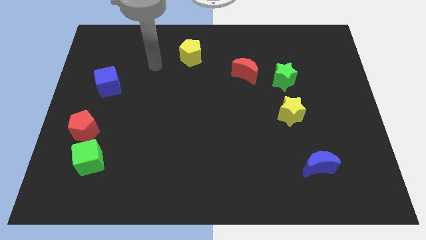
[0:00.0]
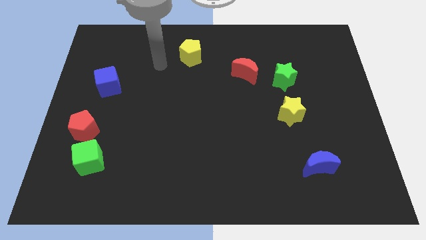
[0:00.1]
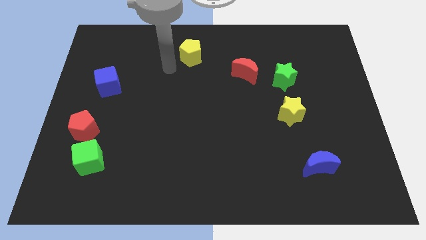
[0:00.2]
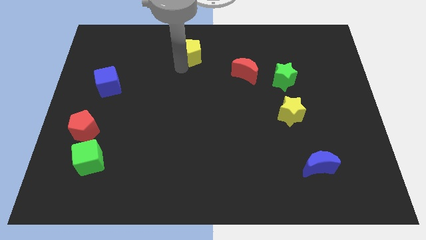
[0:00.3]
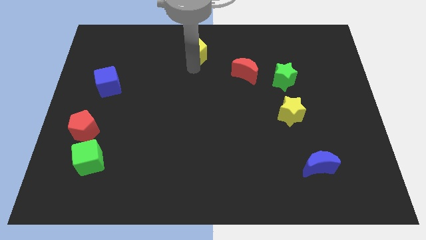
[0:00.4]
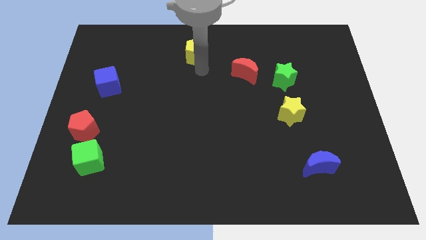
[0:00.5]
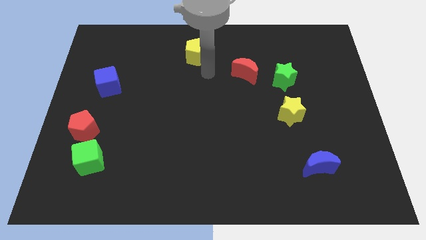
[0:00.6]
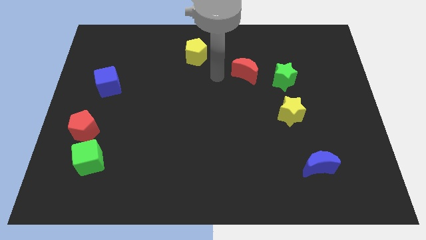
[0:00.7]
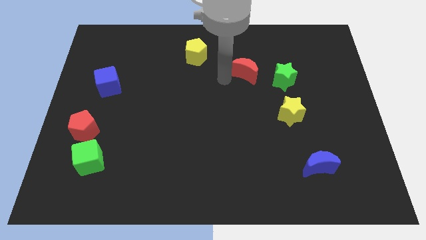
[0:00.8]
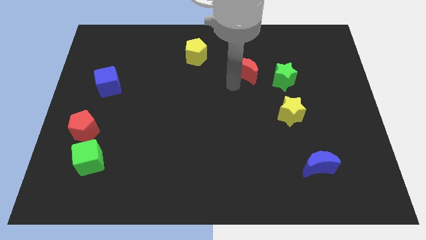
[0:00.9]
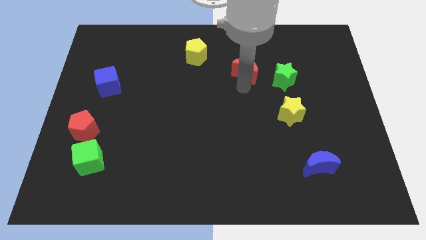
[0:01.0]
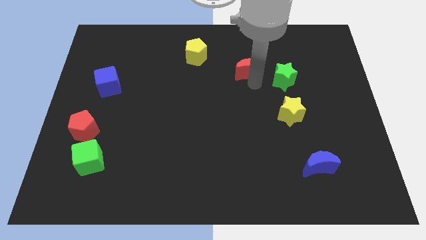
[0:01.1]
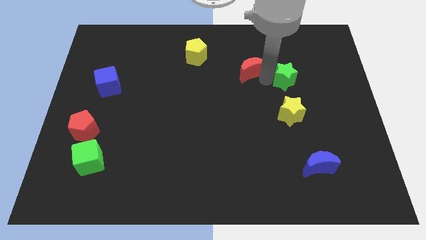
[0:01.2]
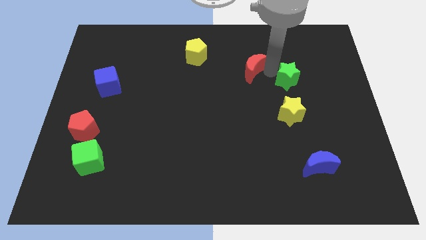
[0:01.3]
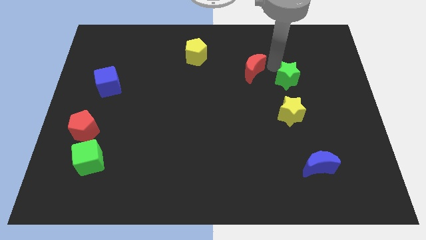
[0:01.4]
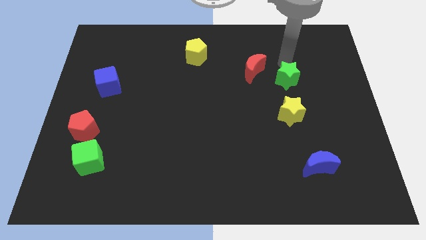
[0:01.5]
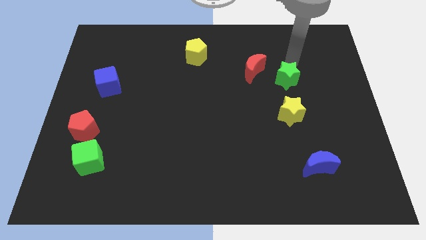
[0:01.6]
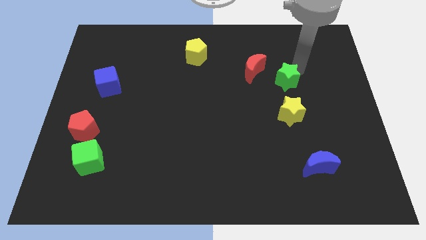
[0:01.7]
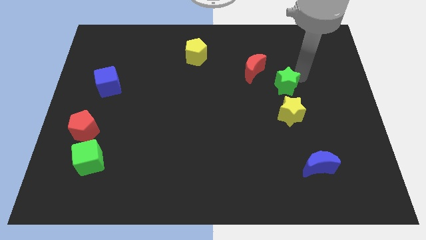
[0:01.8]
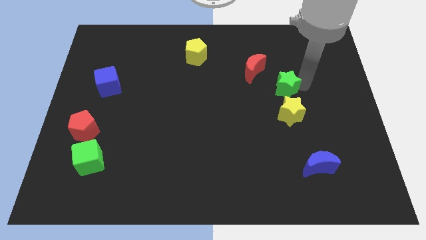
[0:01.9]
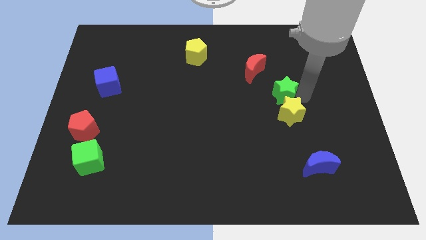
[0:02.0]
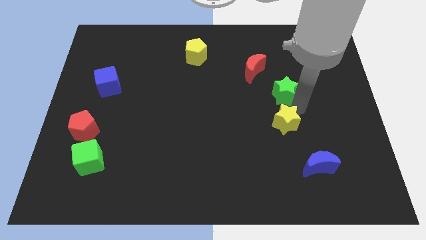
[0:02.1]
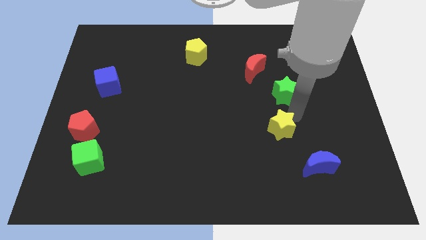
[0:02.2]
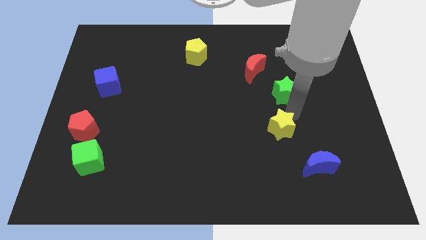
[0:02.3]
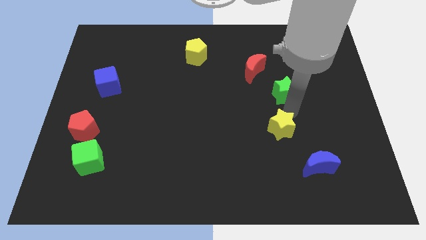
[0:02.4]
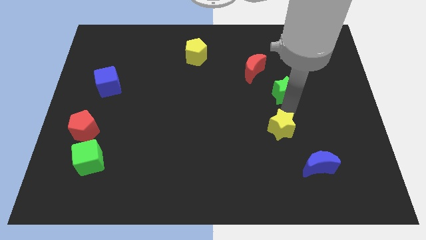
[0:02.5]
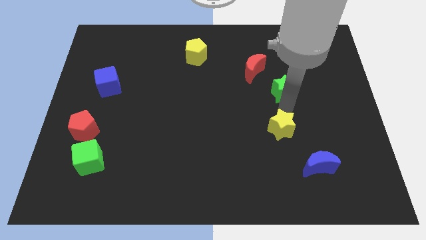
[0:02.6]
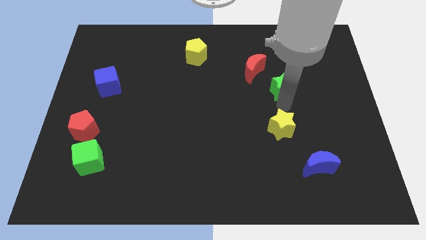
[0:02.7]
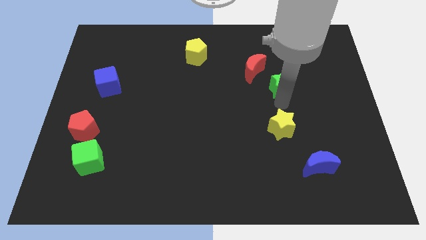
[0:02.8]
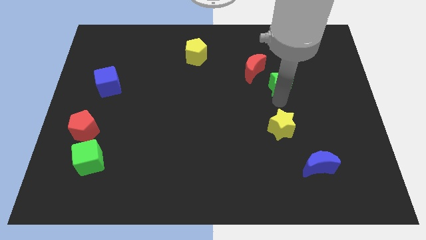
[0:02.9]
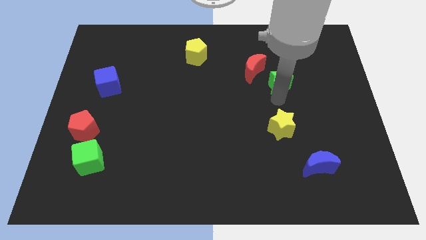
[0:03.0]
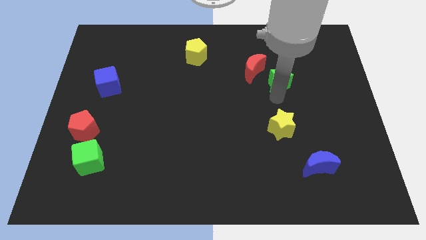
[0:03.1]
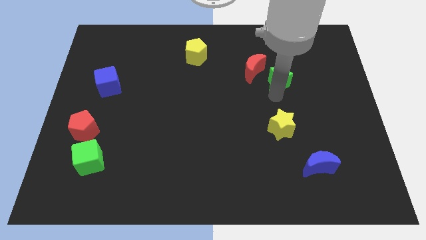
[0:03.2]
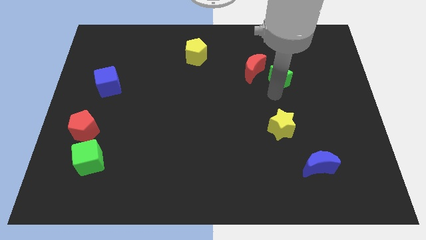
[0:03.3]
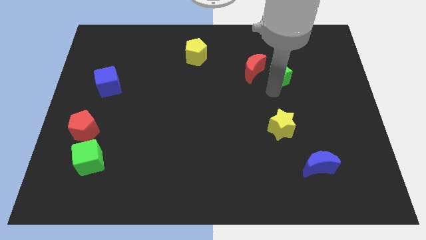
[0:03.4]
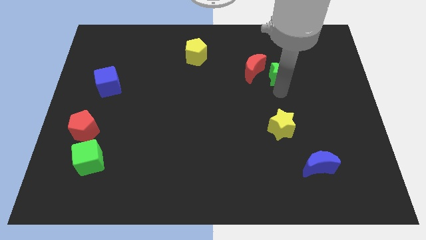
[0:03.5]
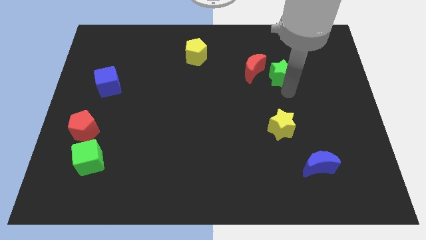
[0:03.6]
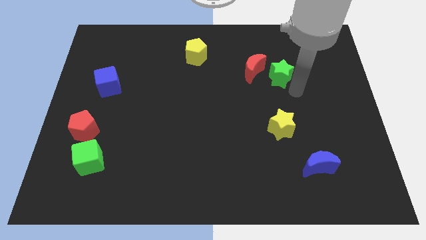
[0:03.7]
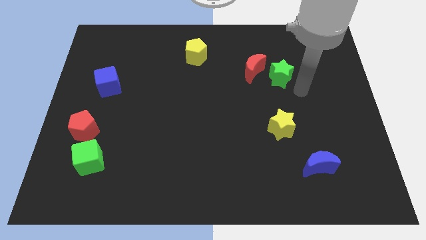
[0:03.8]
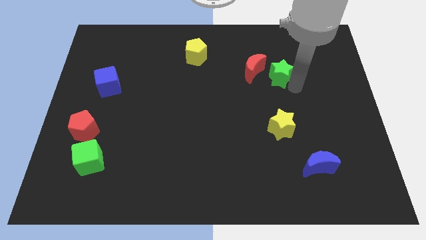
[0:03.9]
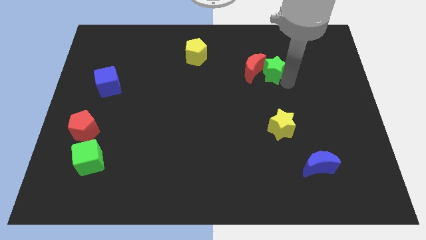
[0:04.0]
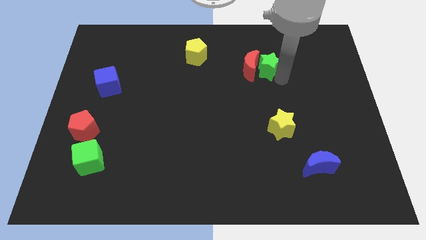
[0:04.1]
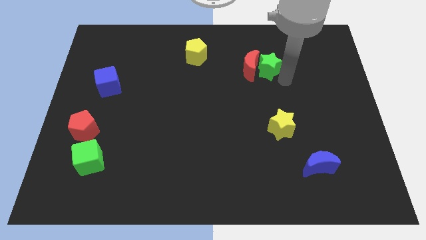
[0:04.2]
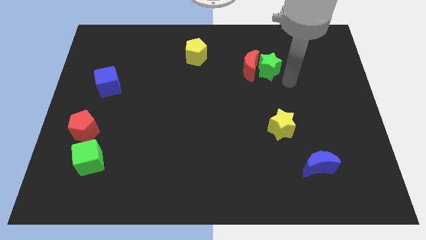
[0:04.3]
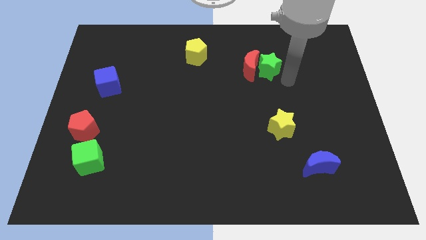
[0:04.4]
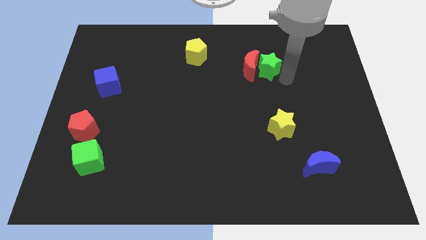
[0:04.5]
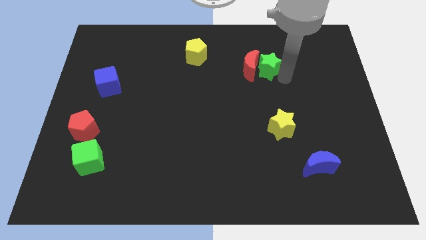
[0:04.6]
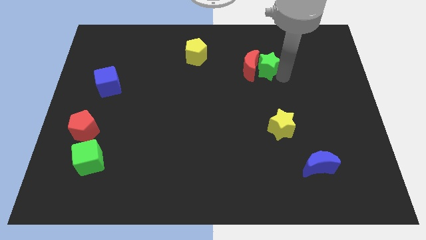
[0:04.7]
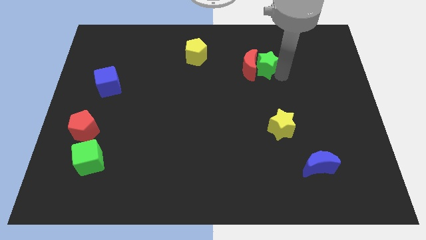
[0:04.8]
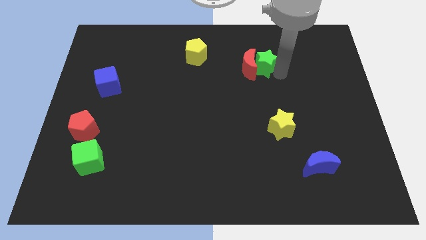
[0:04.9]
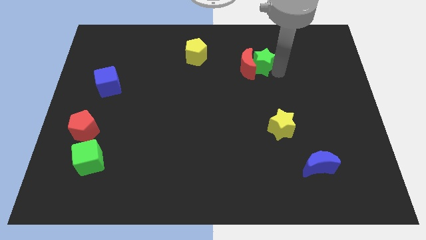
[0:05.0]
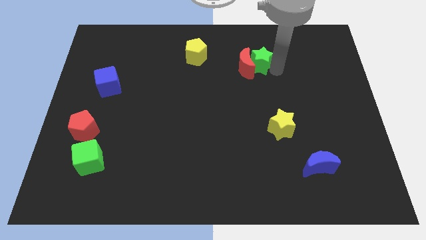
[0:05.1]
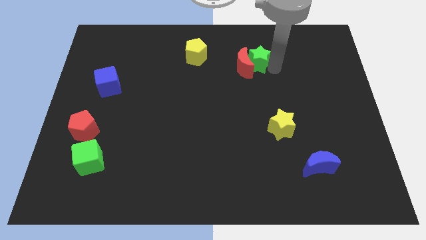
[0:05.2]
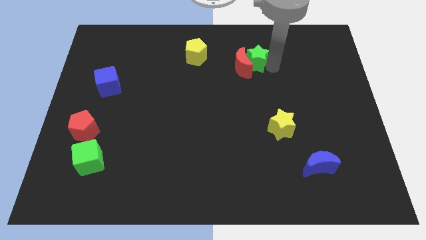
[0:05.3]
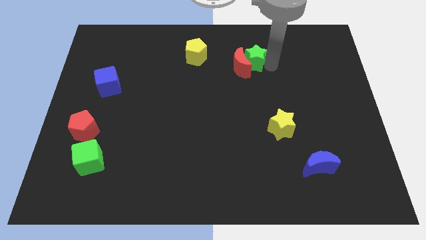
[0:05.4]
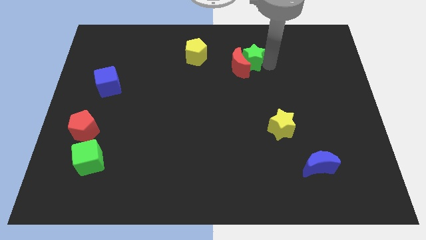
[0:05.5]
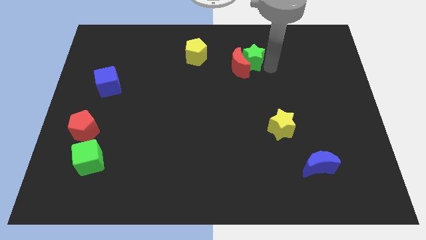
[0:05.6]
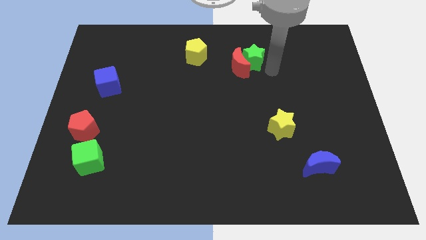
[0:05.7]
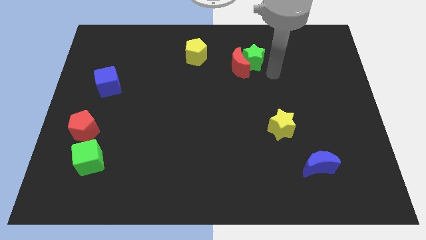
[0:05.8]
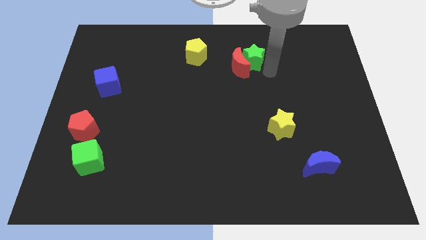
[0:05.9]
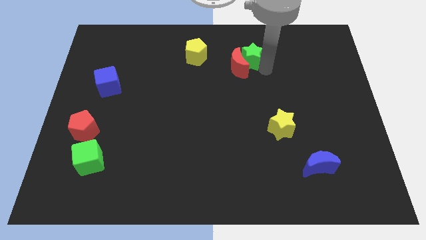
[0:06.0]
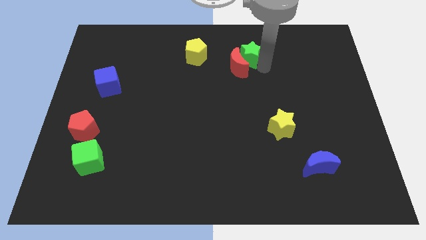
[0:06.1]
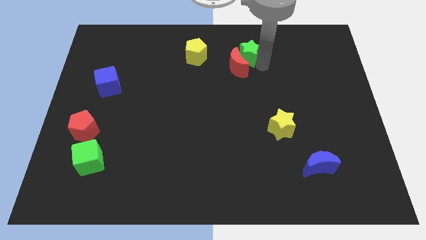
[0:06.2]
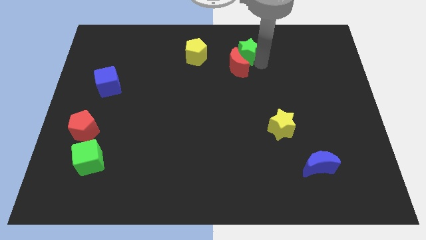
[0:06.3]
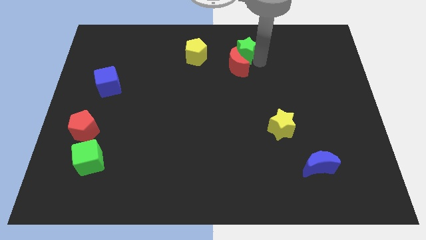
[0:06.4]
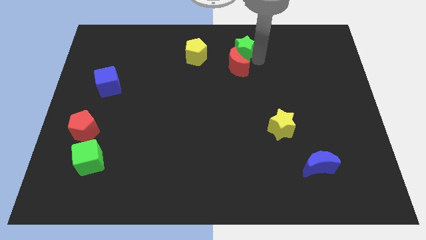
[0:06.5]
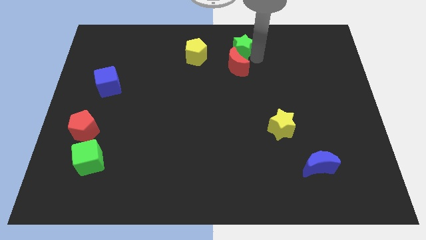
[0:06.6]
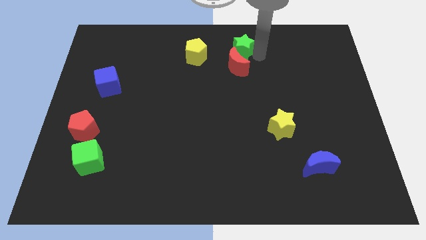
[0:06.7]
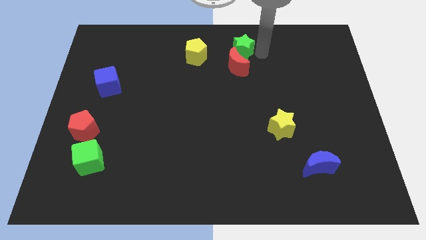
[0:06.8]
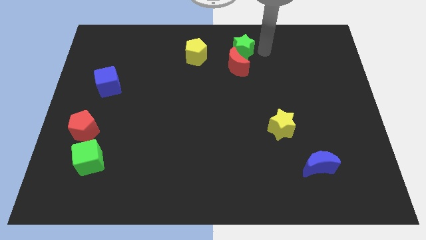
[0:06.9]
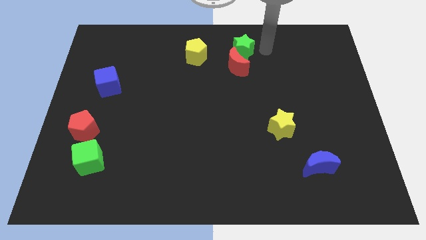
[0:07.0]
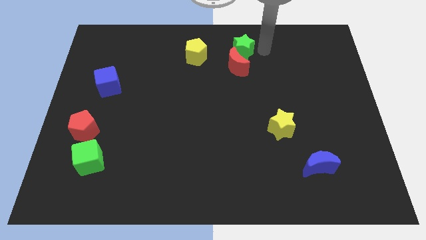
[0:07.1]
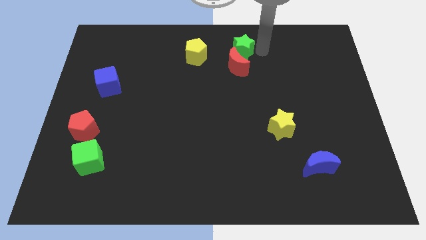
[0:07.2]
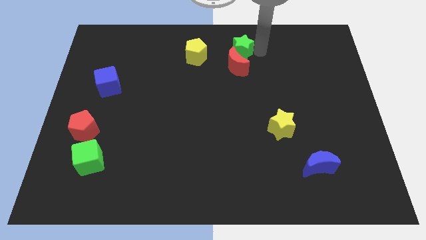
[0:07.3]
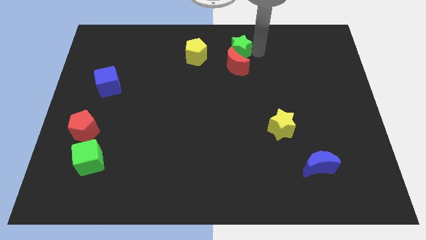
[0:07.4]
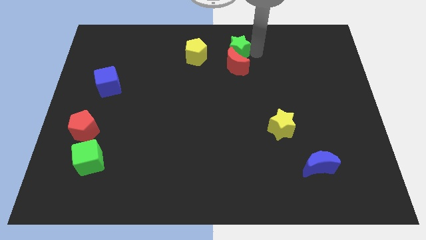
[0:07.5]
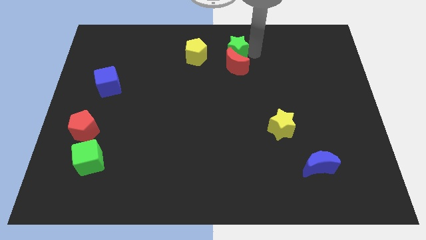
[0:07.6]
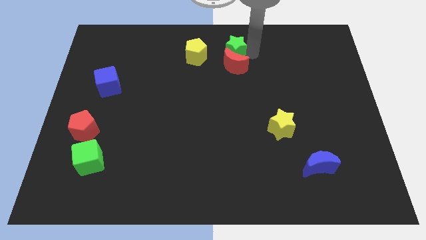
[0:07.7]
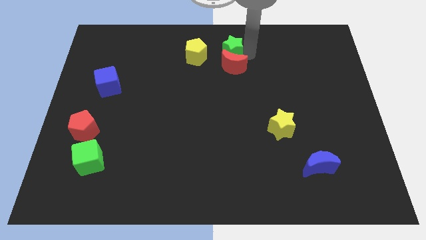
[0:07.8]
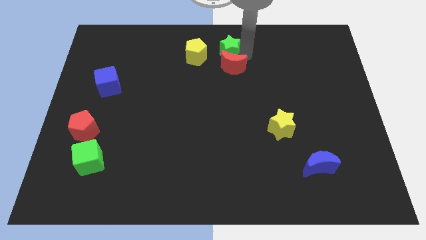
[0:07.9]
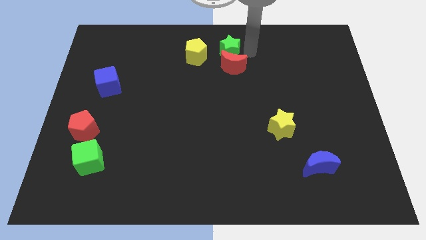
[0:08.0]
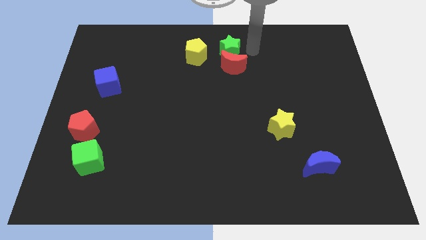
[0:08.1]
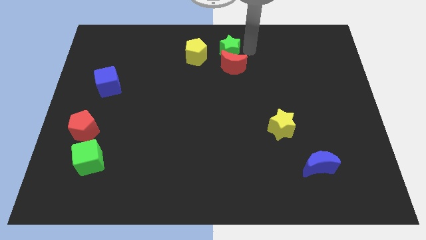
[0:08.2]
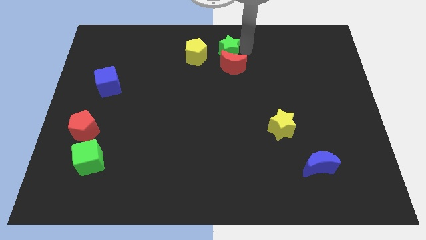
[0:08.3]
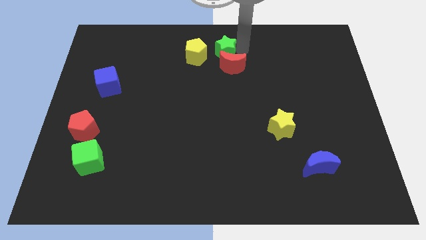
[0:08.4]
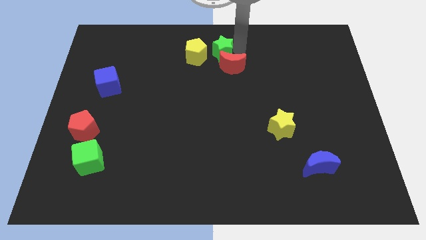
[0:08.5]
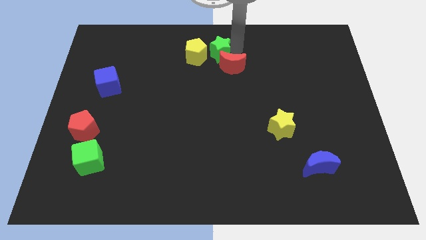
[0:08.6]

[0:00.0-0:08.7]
put the green star to the yellow pentagon
